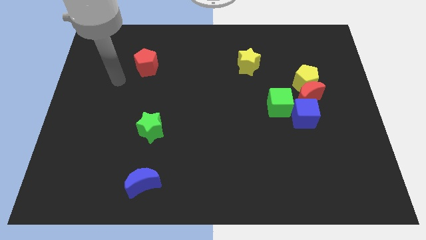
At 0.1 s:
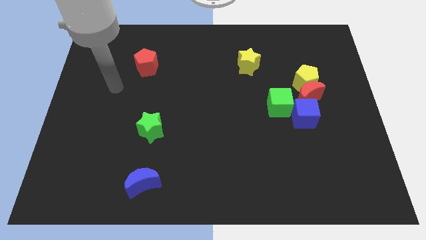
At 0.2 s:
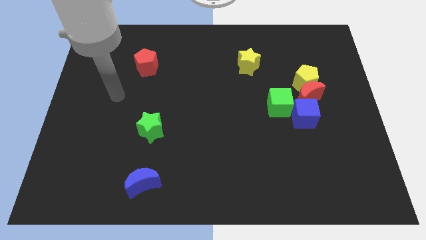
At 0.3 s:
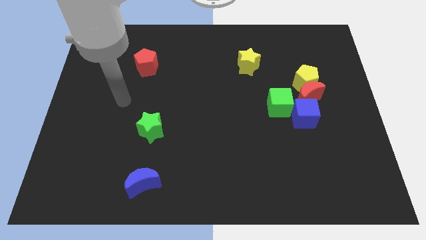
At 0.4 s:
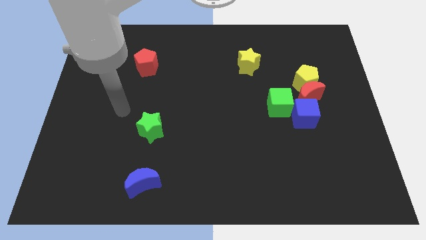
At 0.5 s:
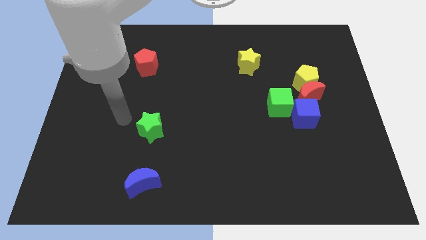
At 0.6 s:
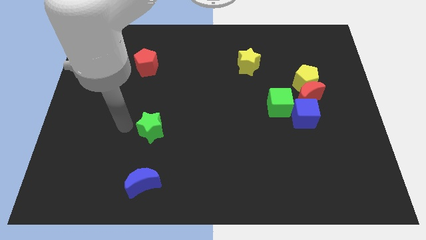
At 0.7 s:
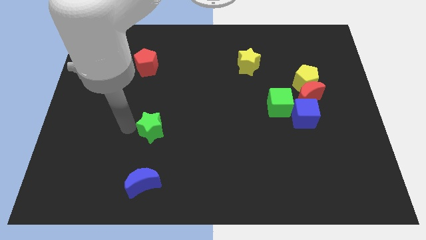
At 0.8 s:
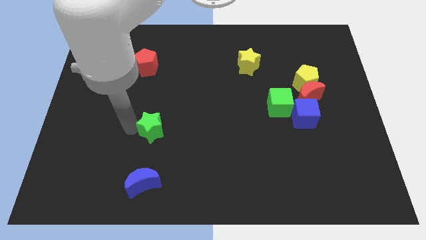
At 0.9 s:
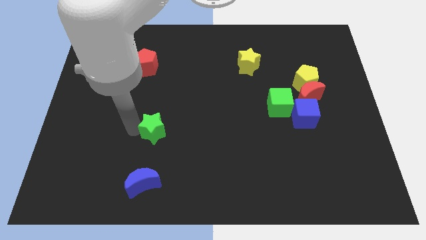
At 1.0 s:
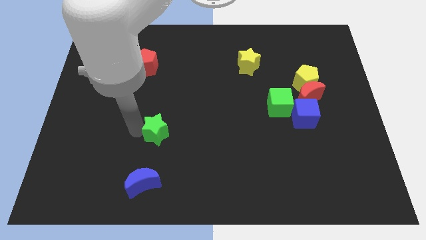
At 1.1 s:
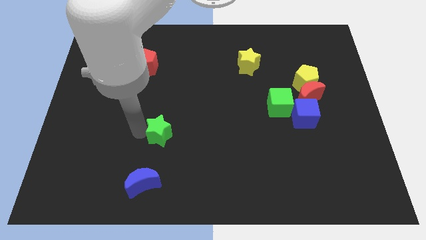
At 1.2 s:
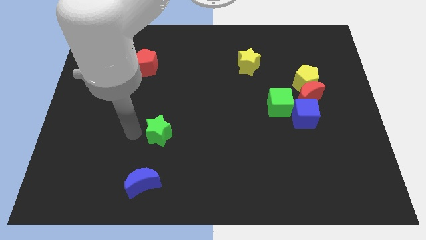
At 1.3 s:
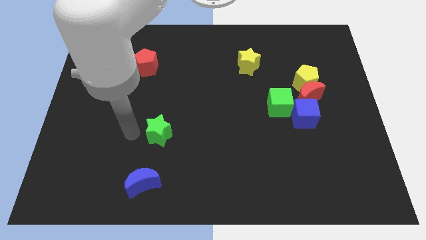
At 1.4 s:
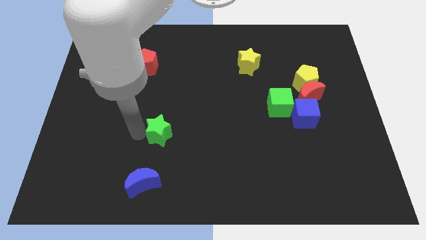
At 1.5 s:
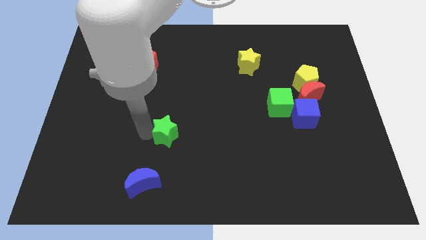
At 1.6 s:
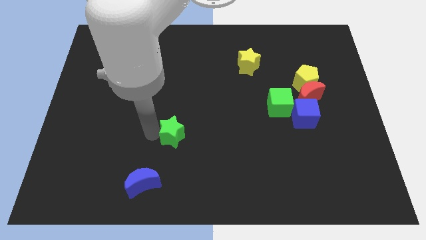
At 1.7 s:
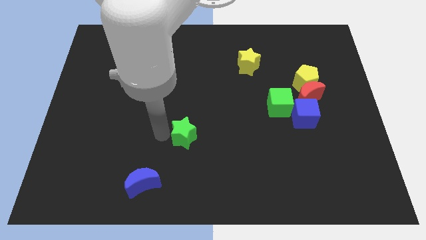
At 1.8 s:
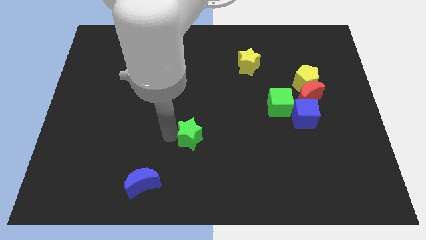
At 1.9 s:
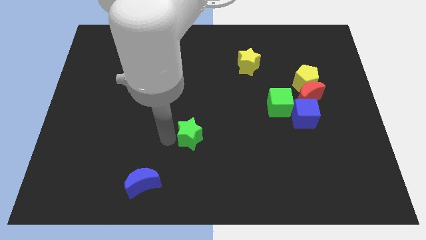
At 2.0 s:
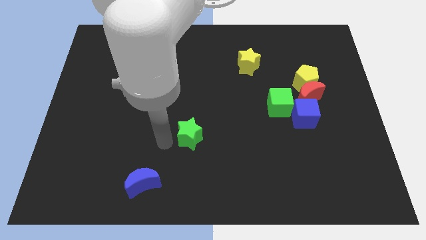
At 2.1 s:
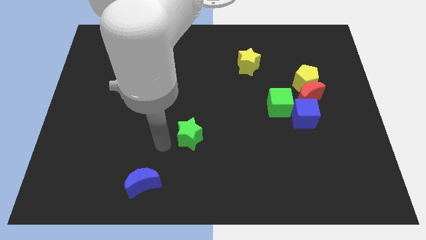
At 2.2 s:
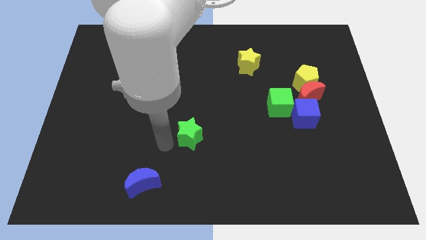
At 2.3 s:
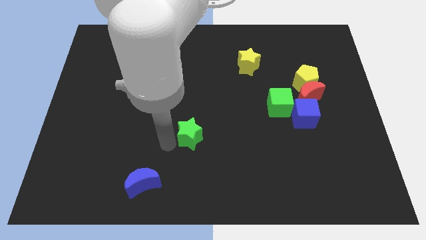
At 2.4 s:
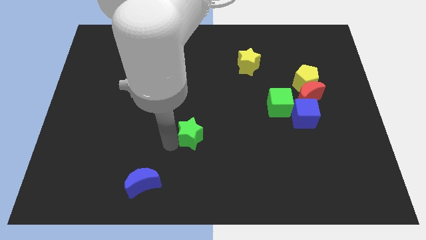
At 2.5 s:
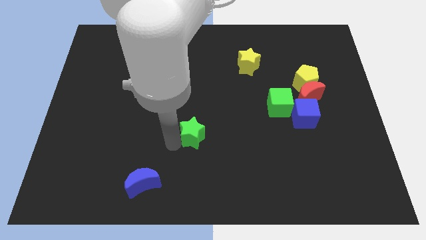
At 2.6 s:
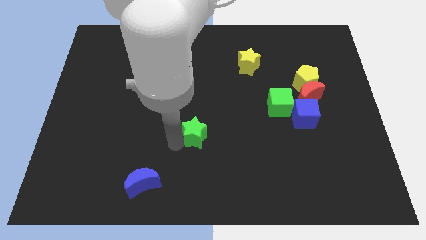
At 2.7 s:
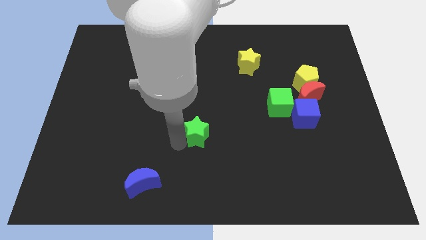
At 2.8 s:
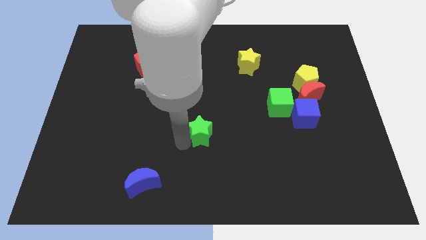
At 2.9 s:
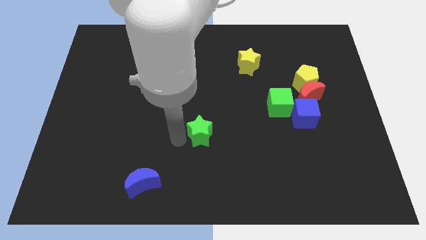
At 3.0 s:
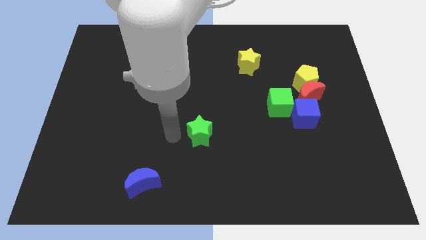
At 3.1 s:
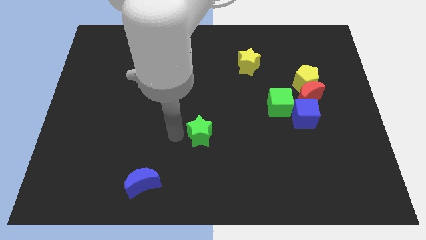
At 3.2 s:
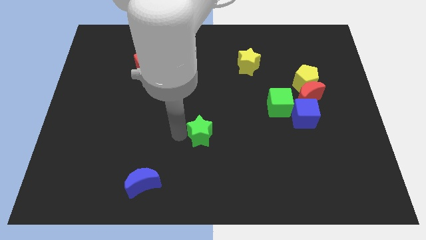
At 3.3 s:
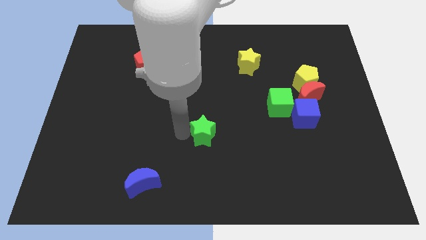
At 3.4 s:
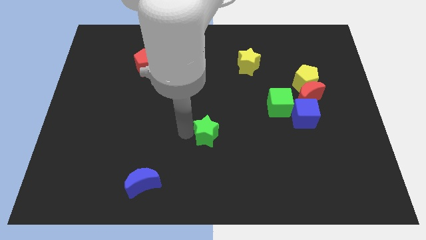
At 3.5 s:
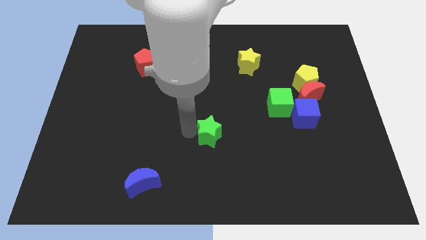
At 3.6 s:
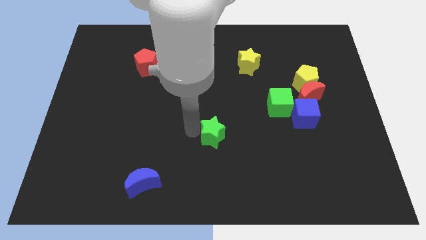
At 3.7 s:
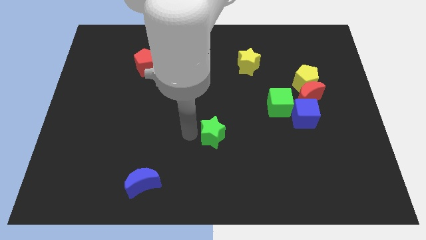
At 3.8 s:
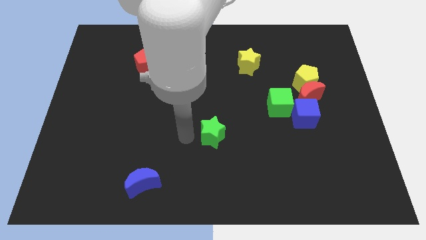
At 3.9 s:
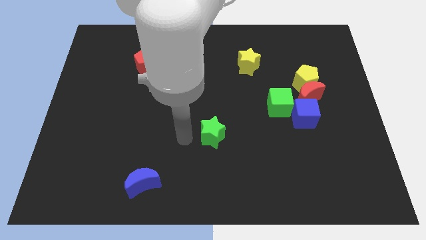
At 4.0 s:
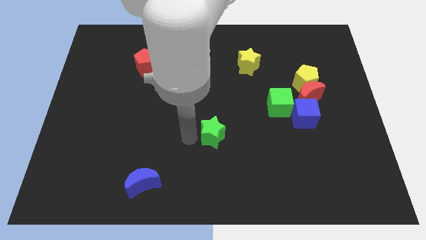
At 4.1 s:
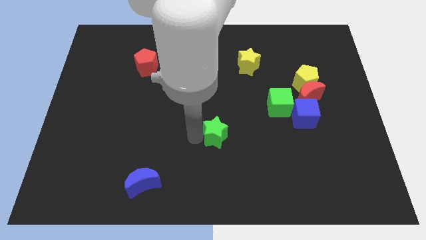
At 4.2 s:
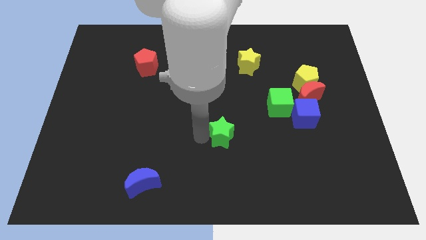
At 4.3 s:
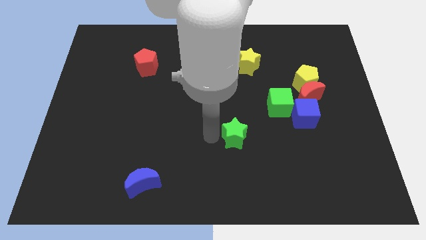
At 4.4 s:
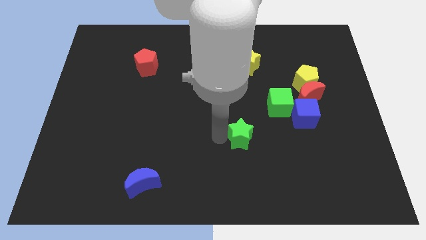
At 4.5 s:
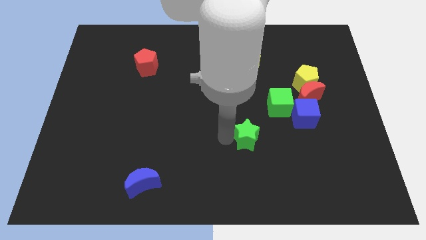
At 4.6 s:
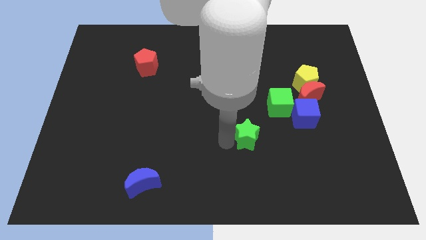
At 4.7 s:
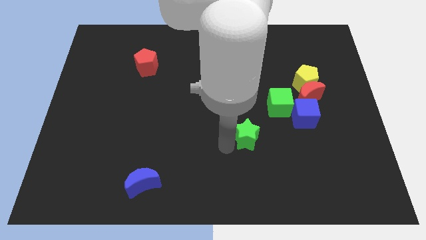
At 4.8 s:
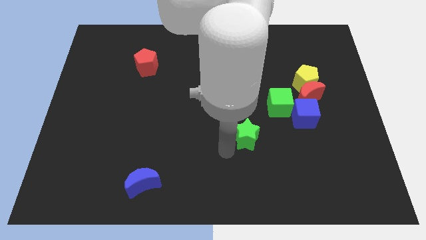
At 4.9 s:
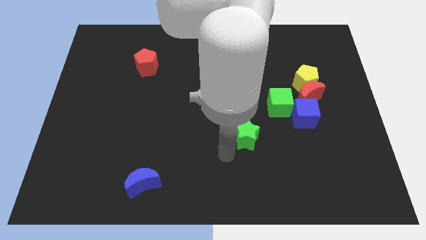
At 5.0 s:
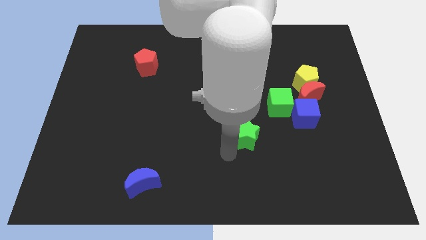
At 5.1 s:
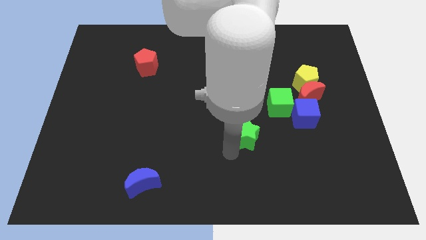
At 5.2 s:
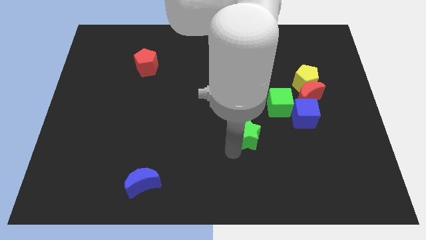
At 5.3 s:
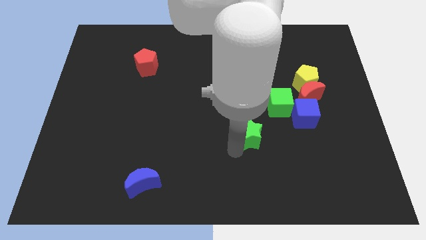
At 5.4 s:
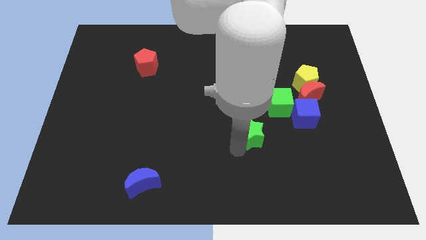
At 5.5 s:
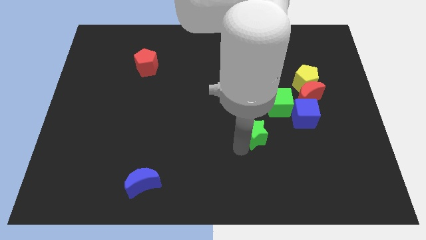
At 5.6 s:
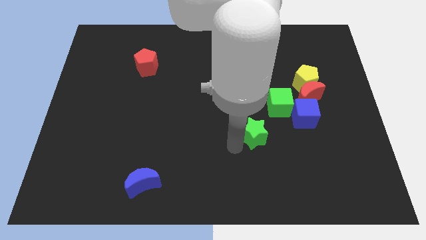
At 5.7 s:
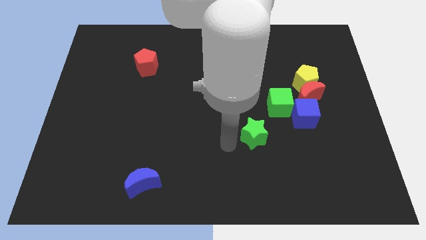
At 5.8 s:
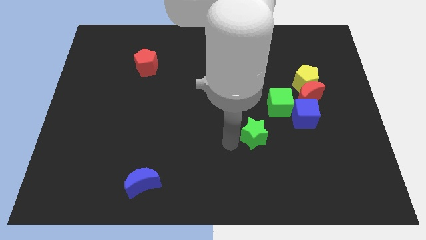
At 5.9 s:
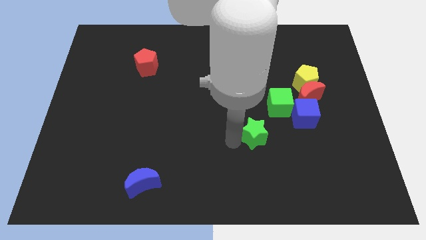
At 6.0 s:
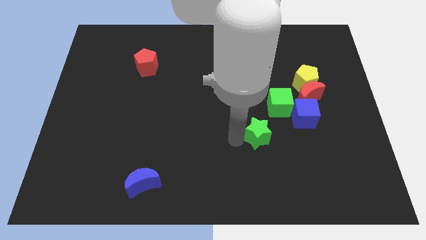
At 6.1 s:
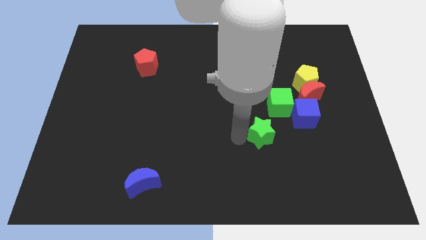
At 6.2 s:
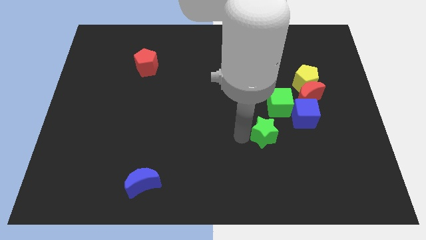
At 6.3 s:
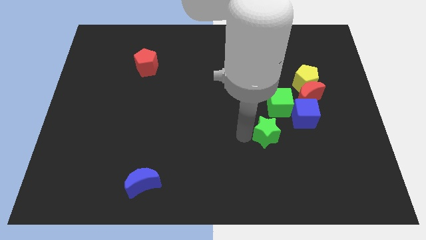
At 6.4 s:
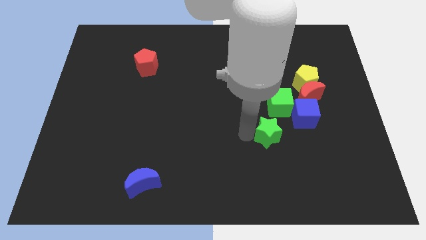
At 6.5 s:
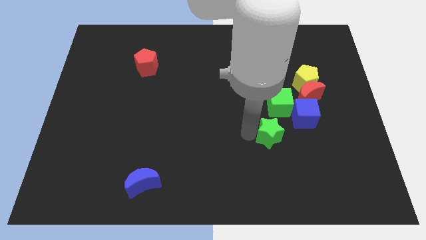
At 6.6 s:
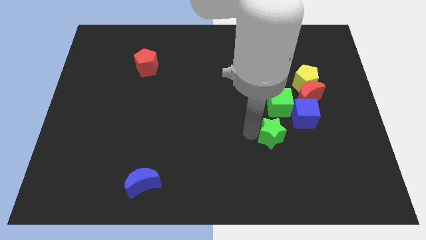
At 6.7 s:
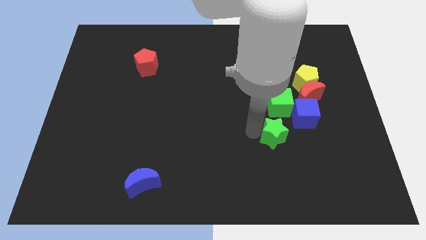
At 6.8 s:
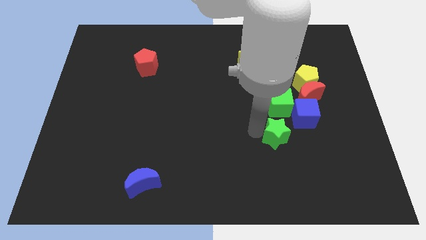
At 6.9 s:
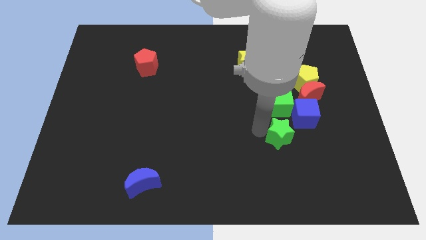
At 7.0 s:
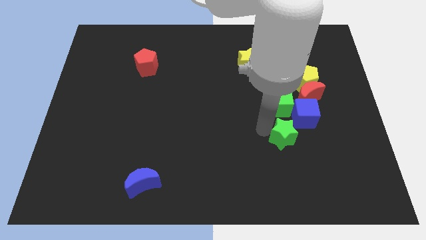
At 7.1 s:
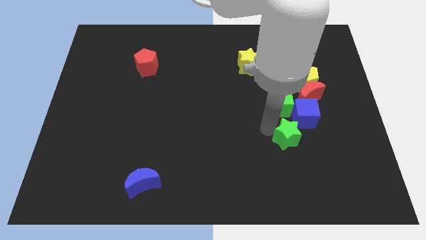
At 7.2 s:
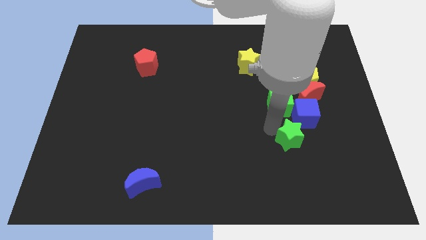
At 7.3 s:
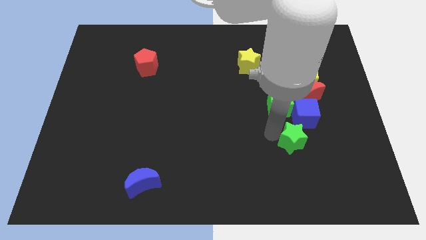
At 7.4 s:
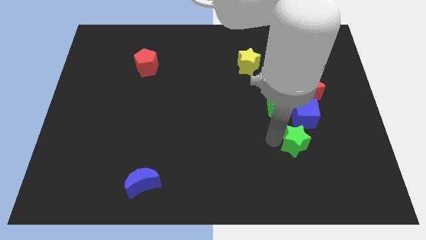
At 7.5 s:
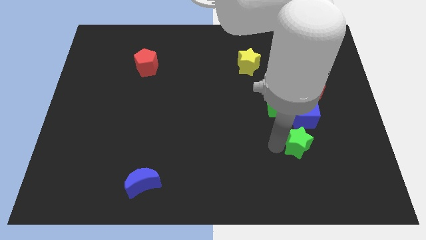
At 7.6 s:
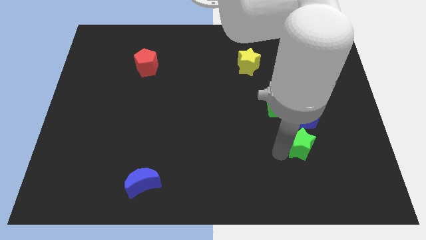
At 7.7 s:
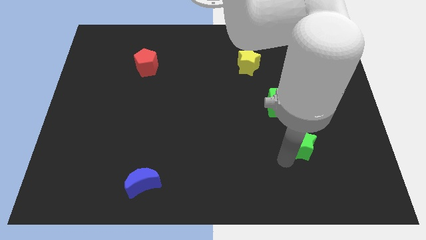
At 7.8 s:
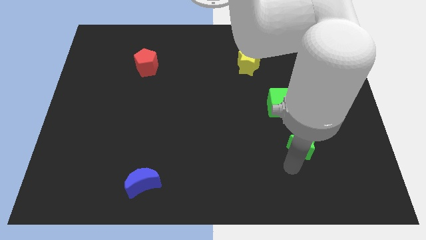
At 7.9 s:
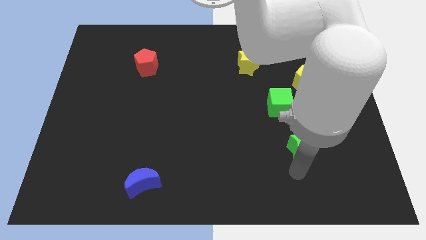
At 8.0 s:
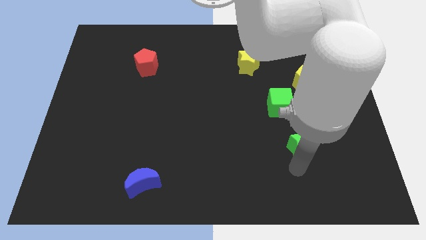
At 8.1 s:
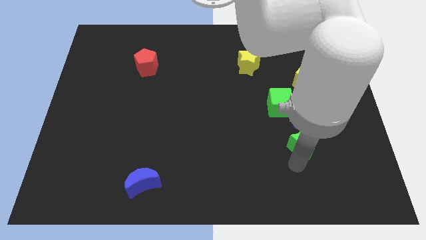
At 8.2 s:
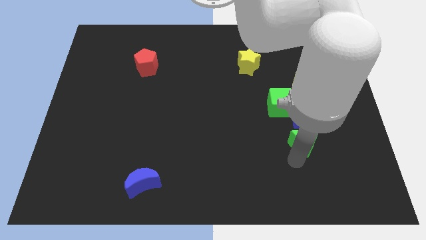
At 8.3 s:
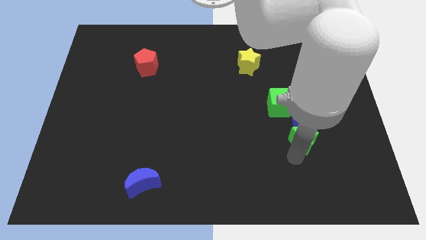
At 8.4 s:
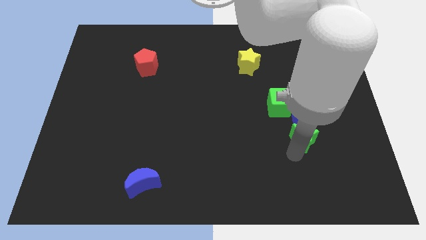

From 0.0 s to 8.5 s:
put the green star towards the blue cube
